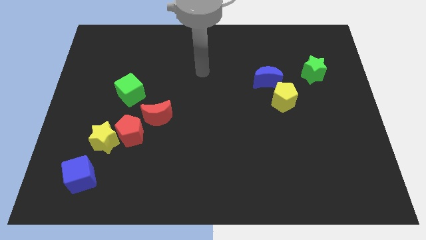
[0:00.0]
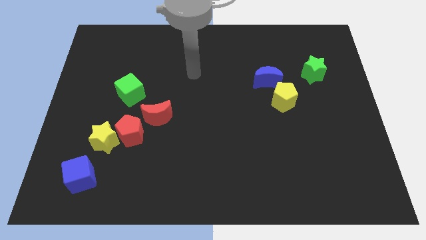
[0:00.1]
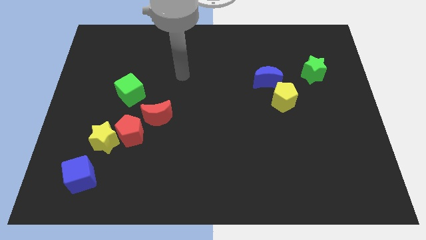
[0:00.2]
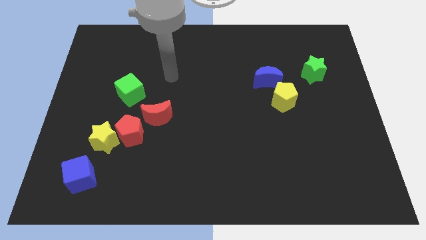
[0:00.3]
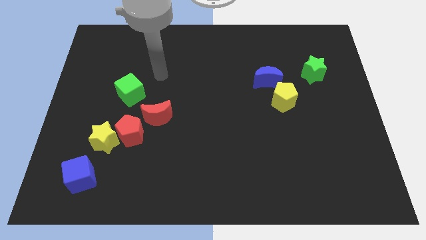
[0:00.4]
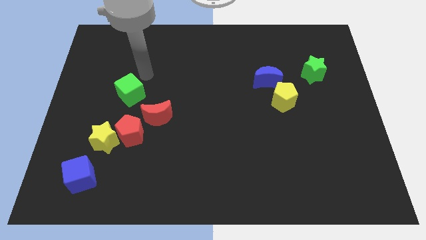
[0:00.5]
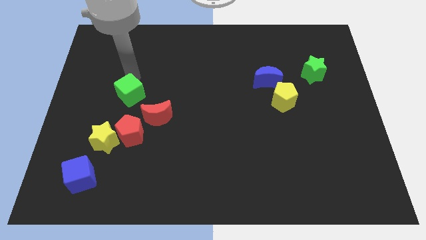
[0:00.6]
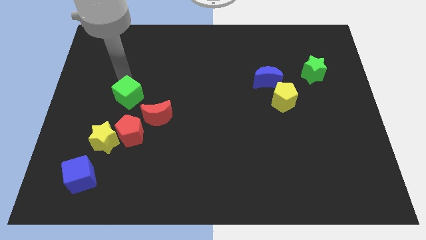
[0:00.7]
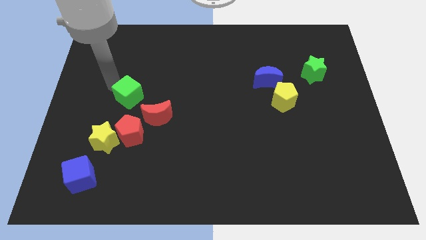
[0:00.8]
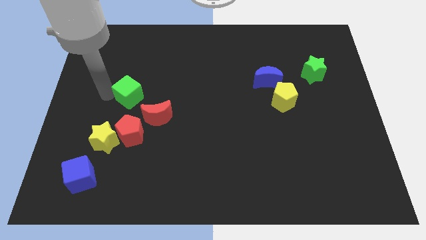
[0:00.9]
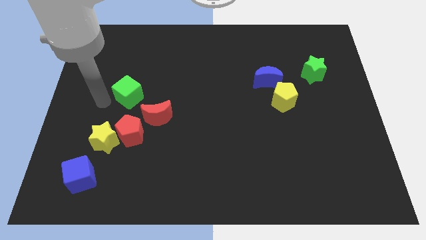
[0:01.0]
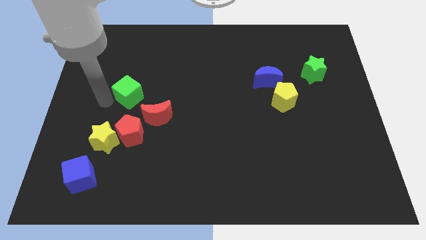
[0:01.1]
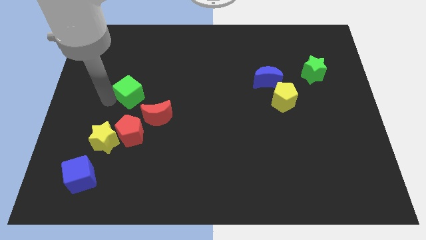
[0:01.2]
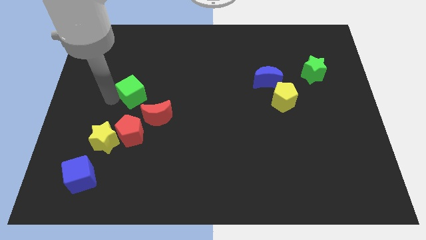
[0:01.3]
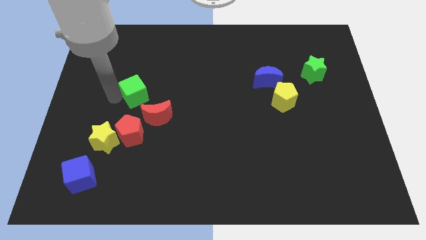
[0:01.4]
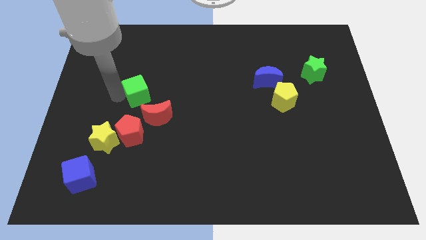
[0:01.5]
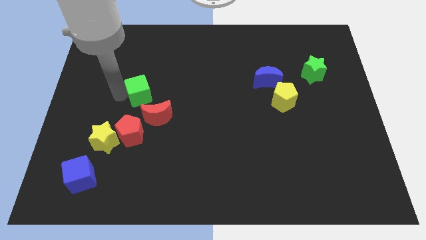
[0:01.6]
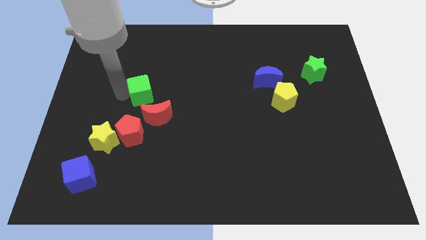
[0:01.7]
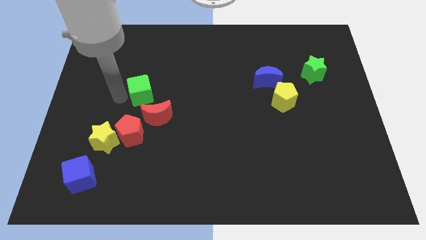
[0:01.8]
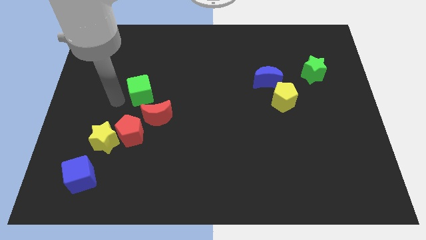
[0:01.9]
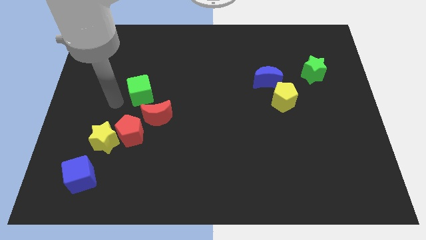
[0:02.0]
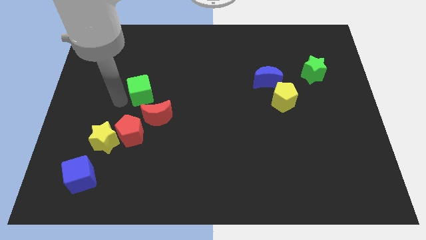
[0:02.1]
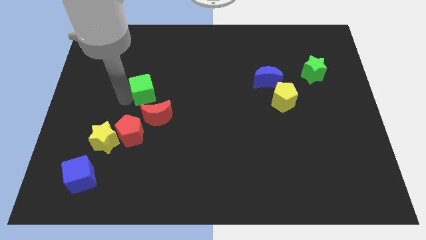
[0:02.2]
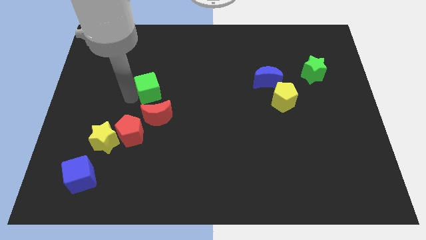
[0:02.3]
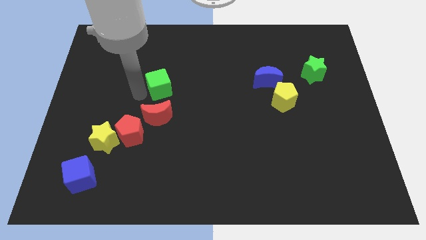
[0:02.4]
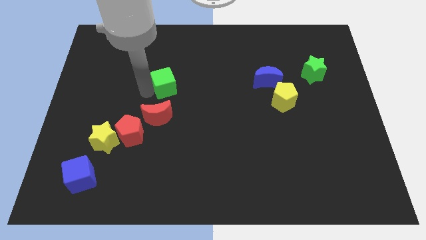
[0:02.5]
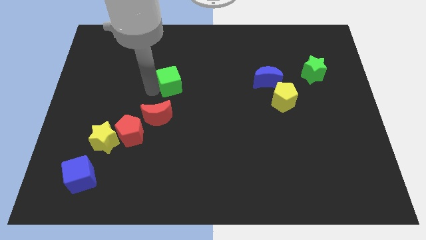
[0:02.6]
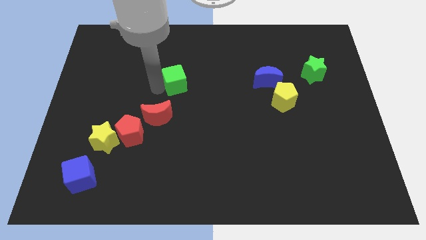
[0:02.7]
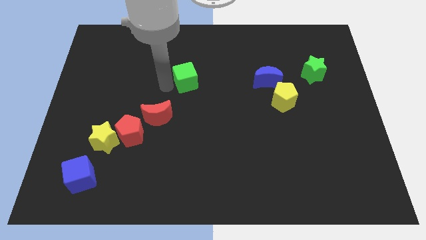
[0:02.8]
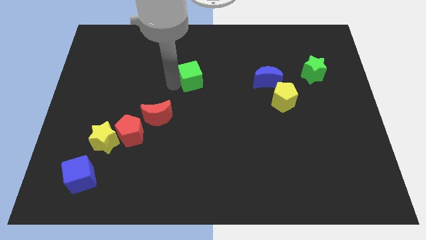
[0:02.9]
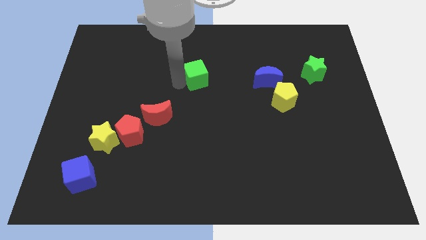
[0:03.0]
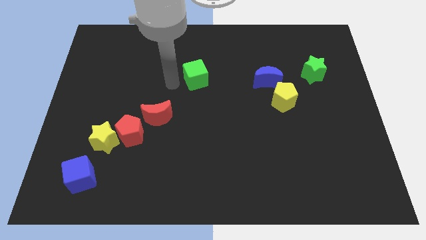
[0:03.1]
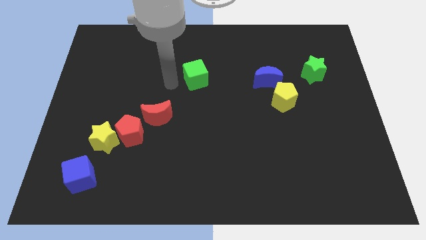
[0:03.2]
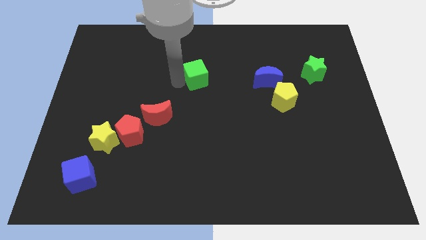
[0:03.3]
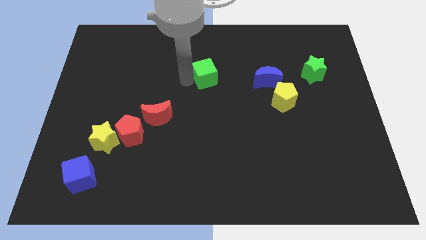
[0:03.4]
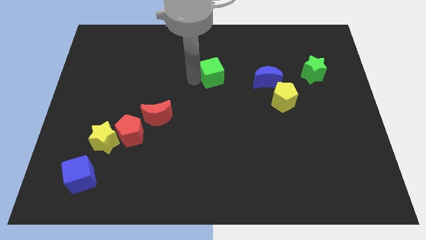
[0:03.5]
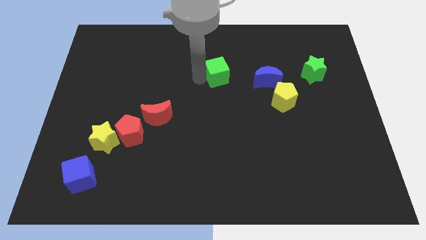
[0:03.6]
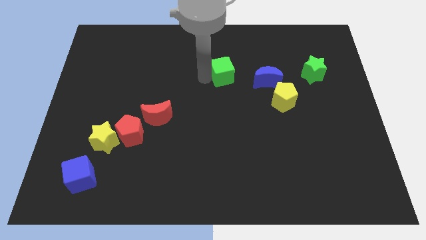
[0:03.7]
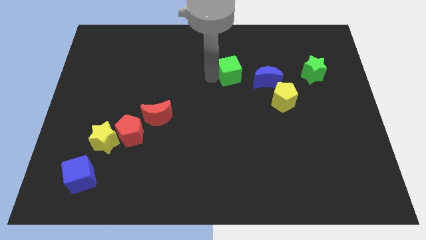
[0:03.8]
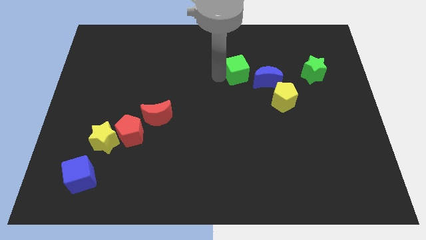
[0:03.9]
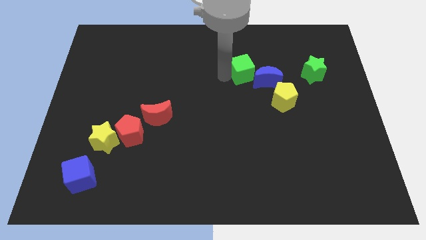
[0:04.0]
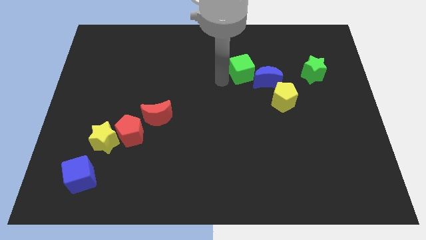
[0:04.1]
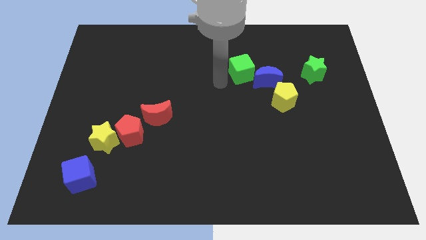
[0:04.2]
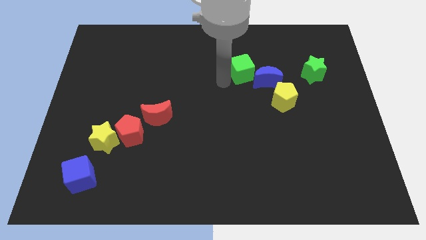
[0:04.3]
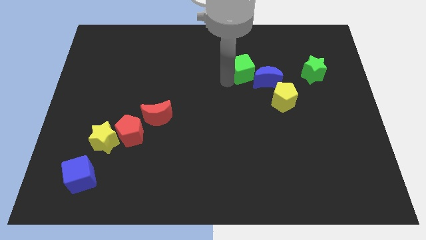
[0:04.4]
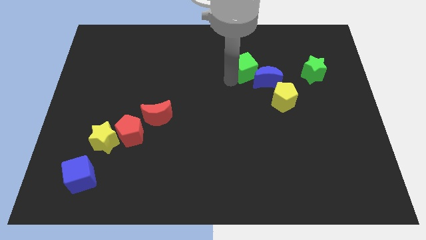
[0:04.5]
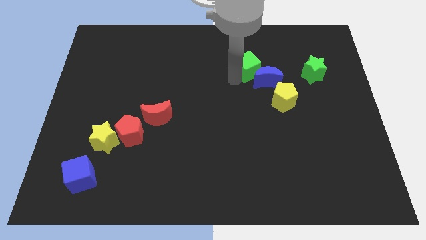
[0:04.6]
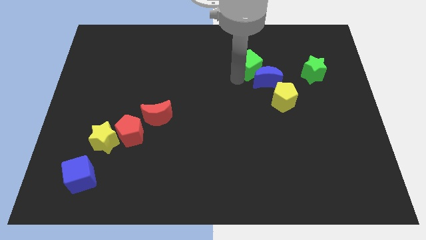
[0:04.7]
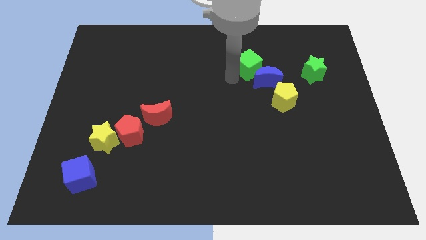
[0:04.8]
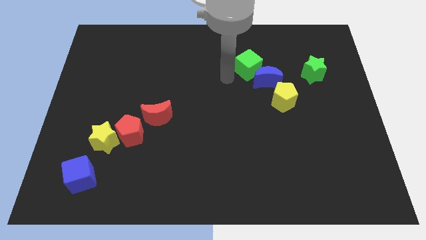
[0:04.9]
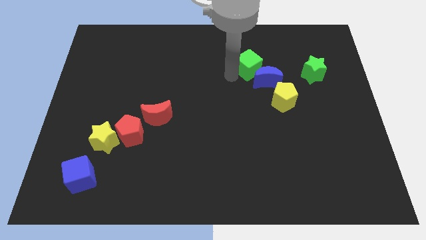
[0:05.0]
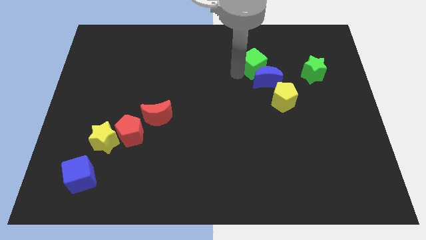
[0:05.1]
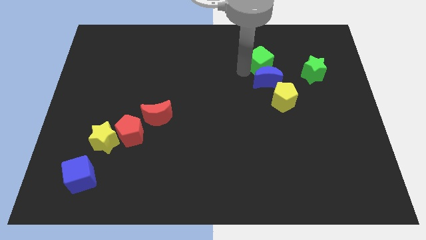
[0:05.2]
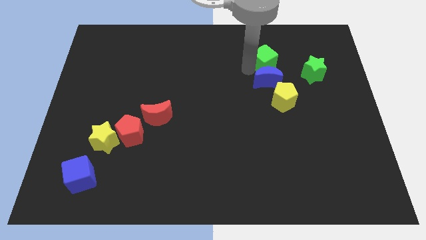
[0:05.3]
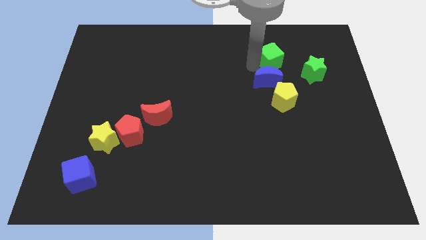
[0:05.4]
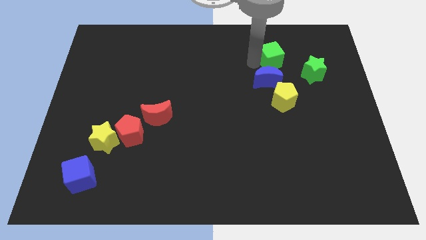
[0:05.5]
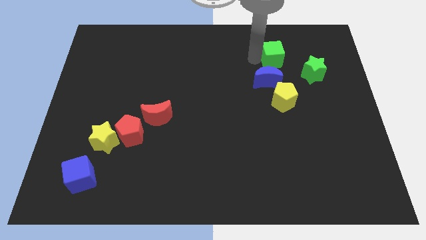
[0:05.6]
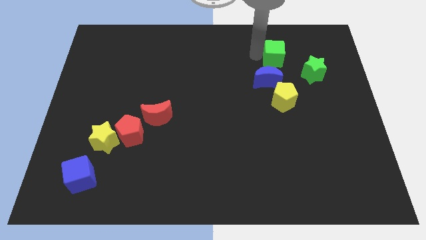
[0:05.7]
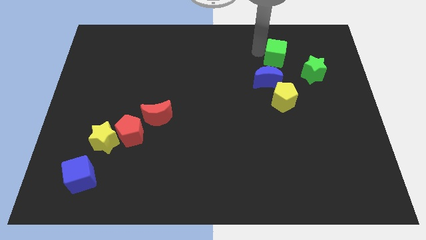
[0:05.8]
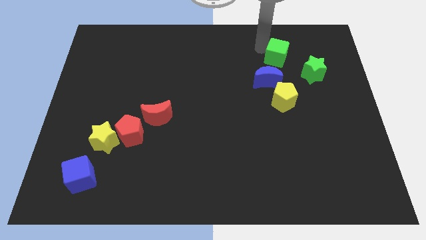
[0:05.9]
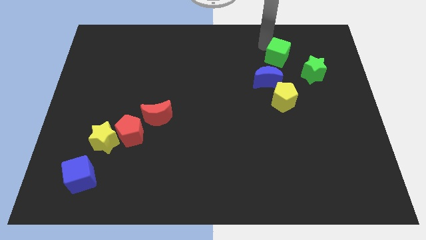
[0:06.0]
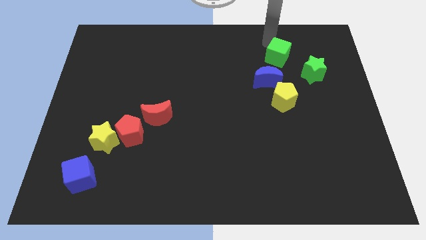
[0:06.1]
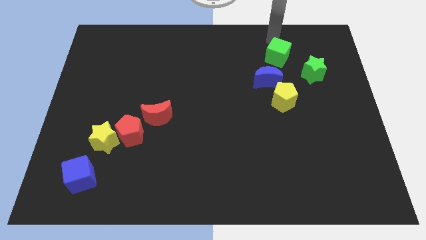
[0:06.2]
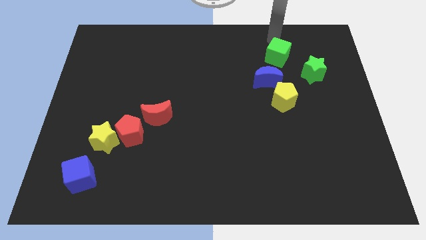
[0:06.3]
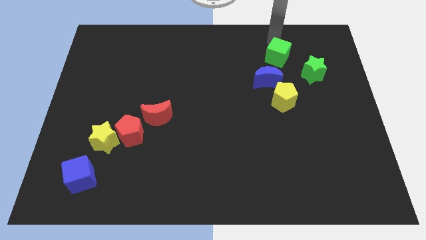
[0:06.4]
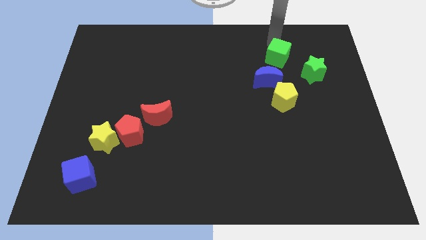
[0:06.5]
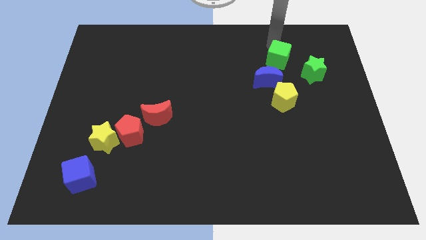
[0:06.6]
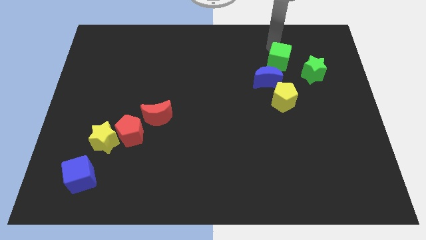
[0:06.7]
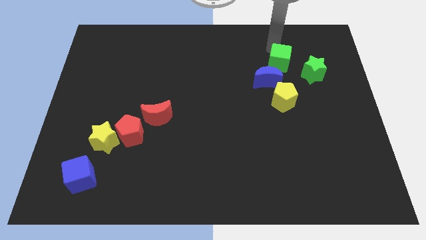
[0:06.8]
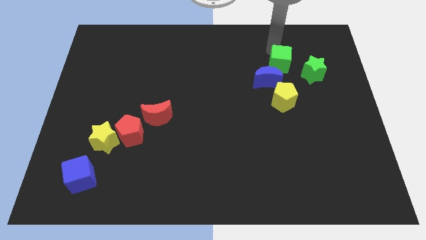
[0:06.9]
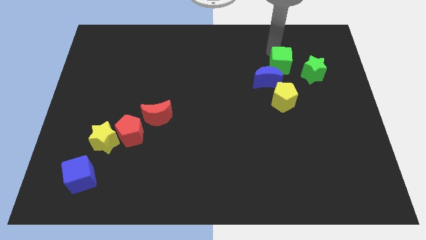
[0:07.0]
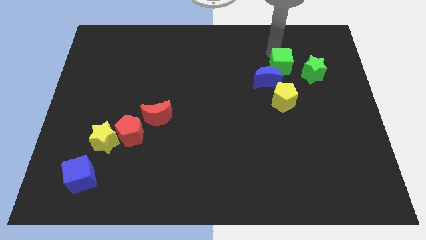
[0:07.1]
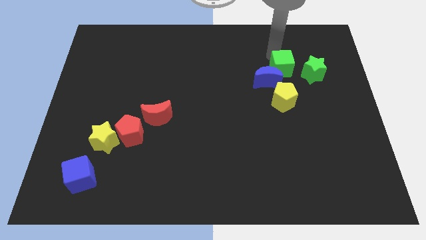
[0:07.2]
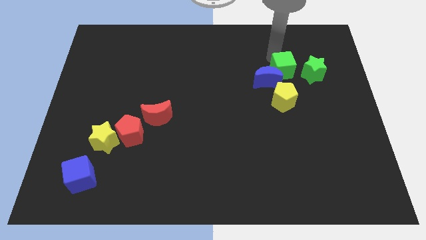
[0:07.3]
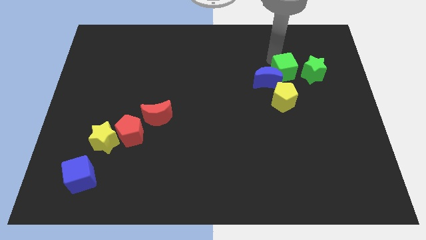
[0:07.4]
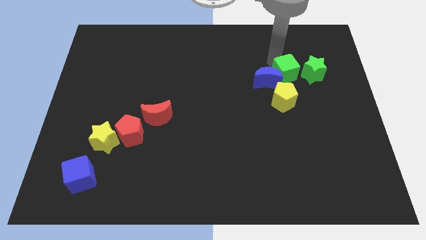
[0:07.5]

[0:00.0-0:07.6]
slide the green cube to the bottom left side of the green star
